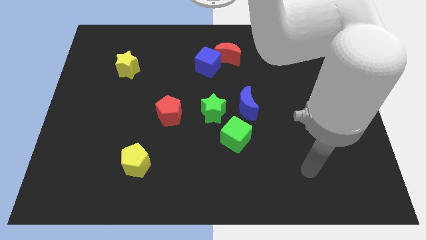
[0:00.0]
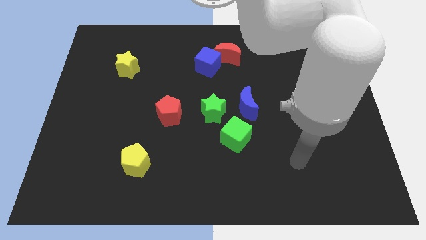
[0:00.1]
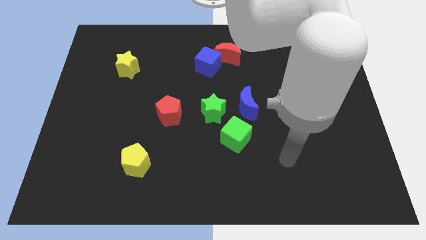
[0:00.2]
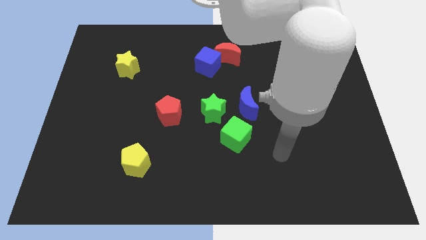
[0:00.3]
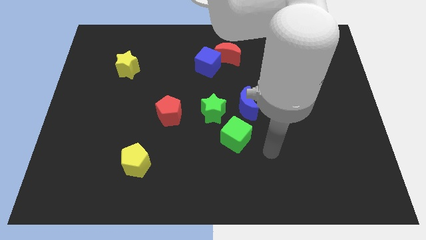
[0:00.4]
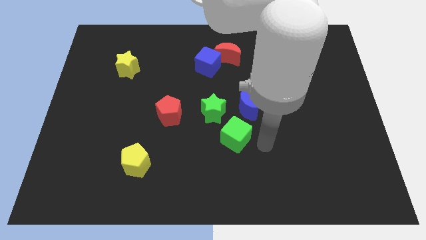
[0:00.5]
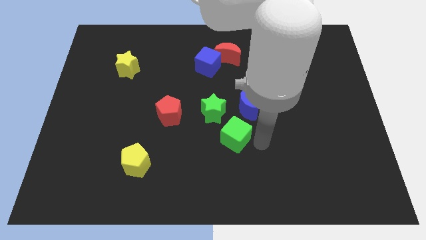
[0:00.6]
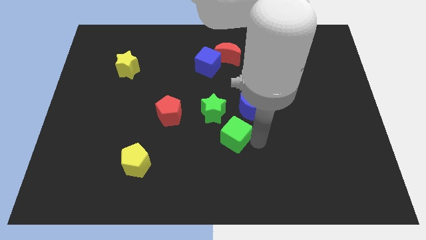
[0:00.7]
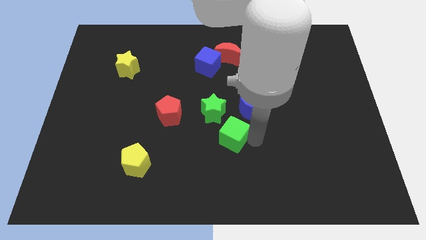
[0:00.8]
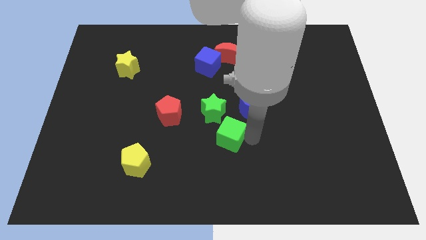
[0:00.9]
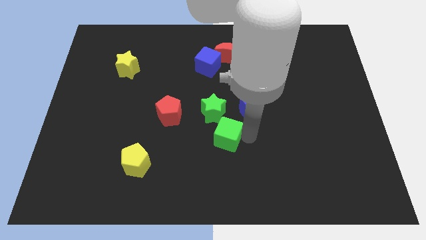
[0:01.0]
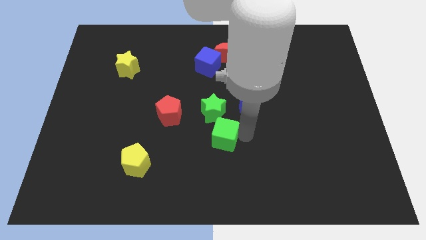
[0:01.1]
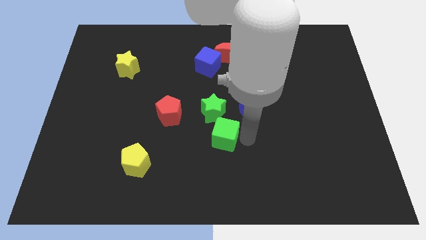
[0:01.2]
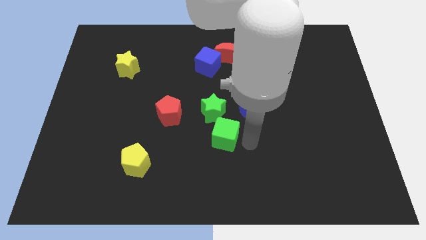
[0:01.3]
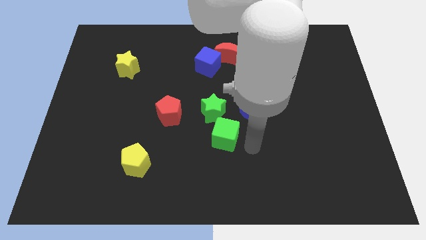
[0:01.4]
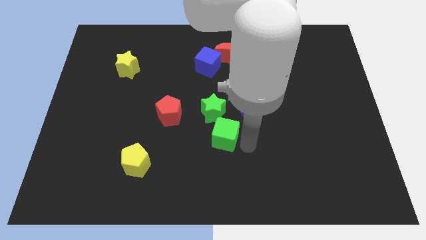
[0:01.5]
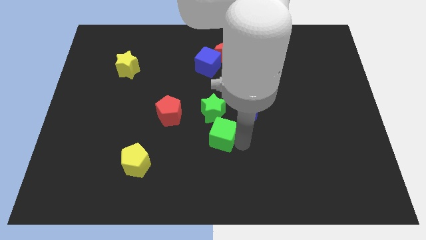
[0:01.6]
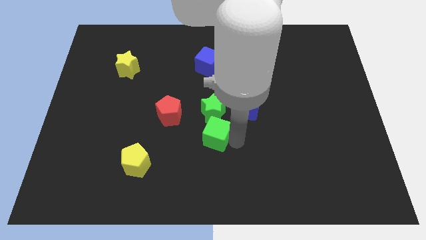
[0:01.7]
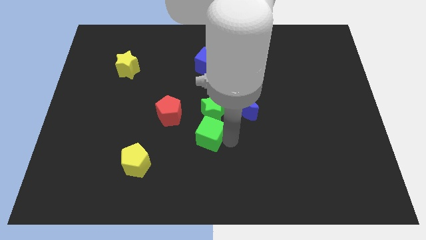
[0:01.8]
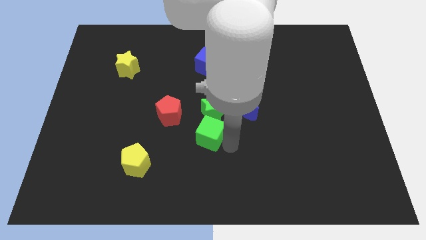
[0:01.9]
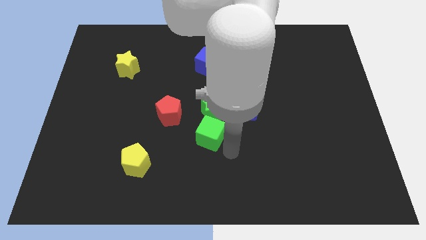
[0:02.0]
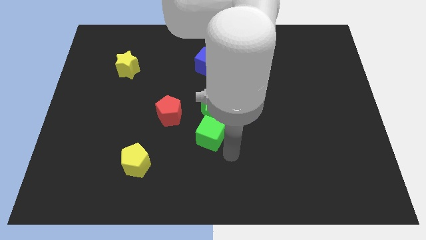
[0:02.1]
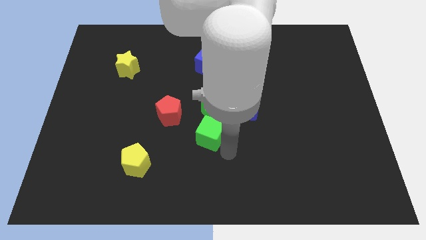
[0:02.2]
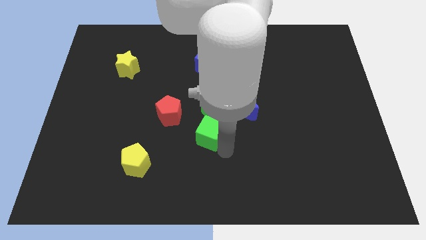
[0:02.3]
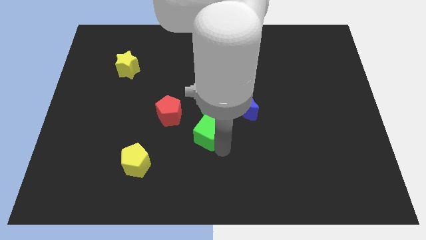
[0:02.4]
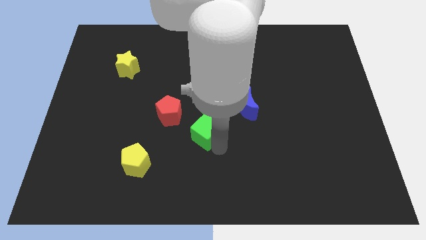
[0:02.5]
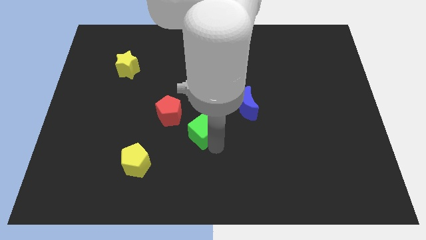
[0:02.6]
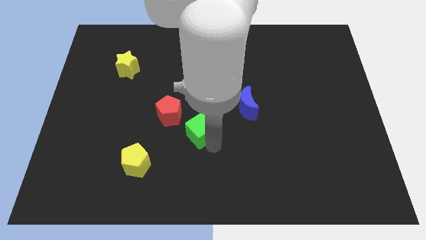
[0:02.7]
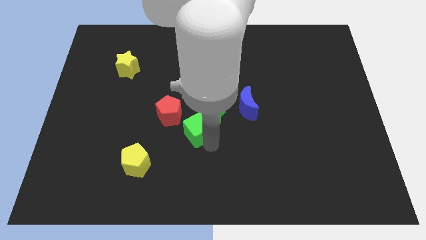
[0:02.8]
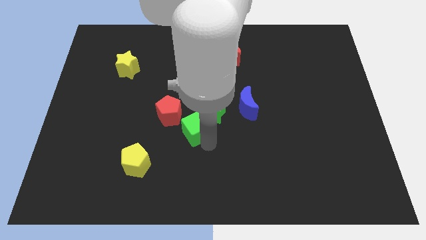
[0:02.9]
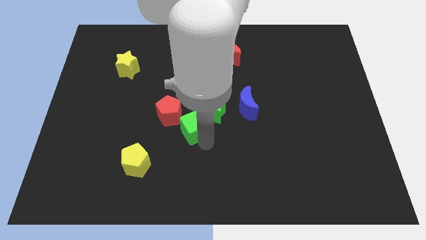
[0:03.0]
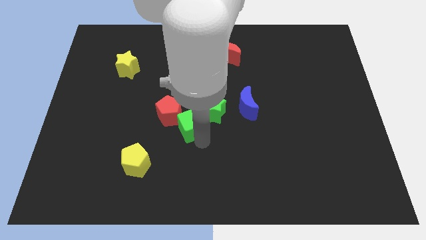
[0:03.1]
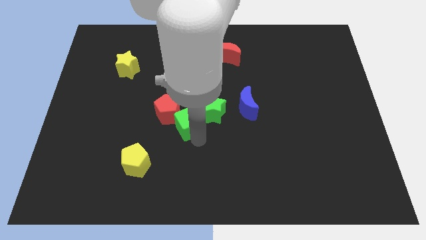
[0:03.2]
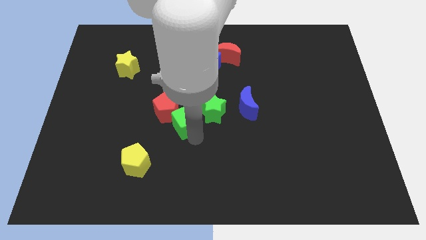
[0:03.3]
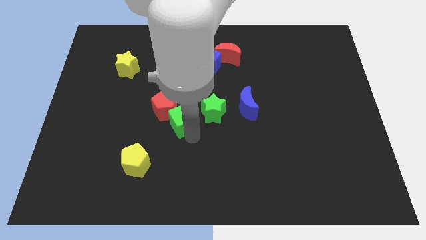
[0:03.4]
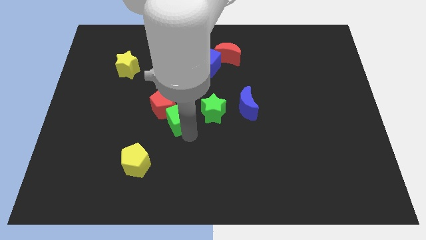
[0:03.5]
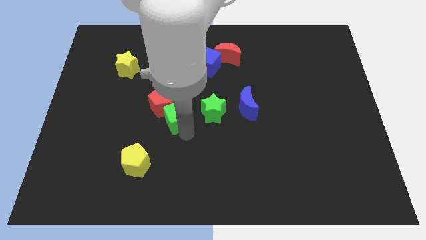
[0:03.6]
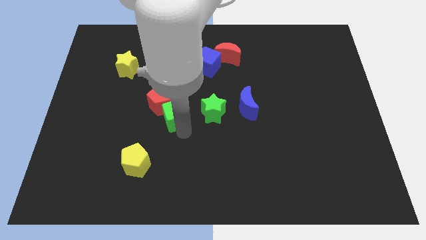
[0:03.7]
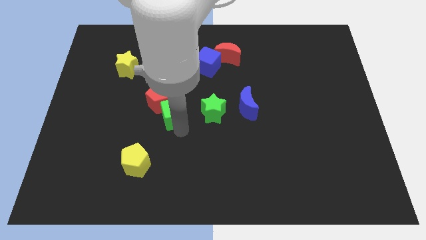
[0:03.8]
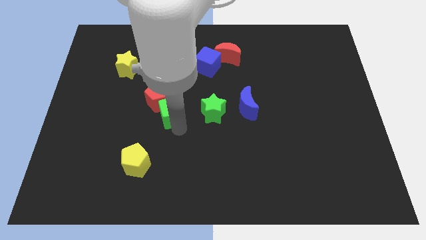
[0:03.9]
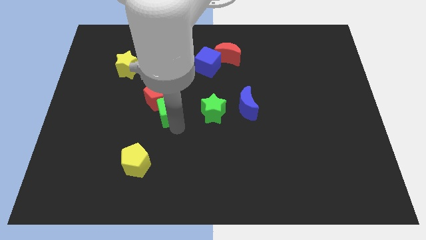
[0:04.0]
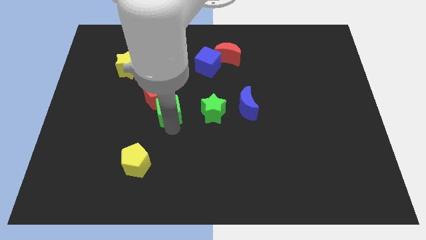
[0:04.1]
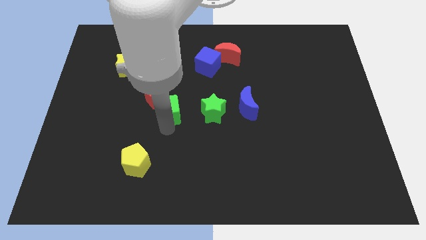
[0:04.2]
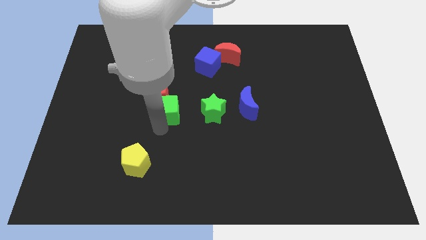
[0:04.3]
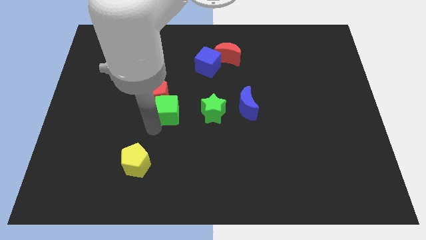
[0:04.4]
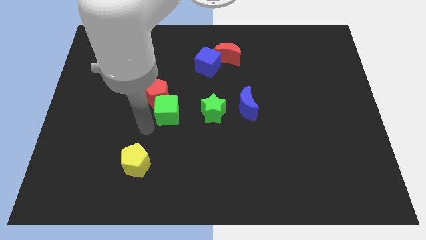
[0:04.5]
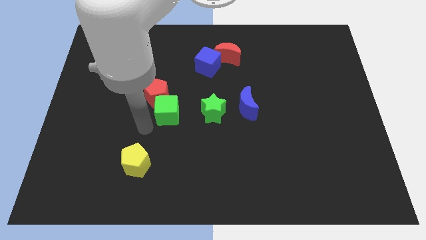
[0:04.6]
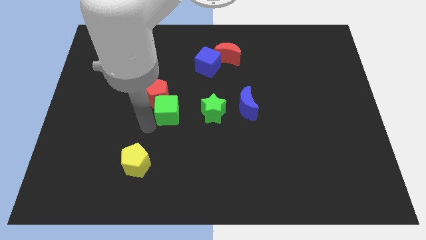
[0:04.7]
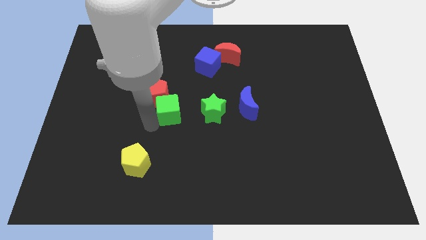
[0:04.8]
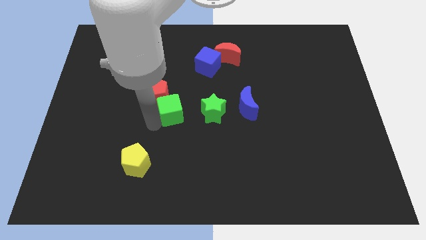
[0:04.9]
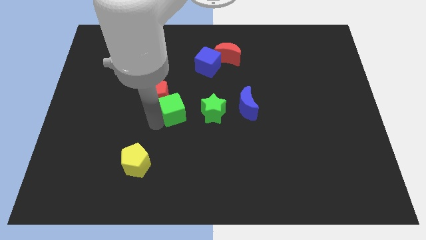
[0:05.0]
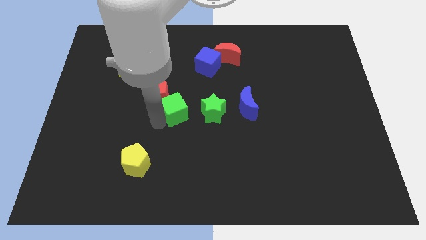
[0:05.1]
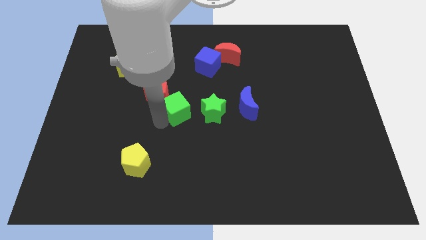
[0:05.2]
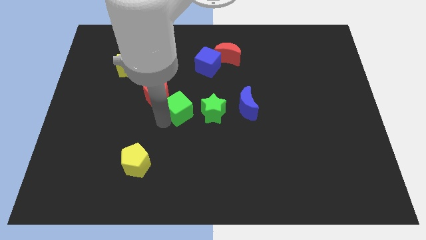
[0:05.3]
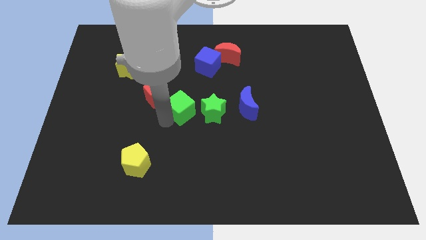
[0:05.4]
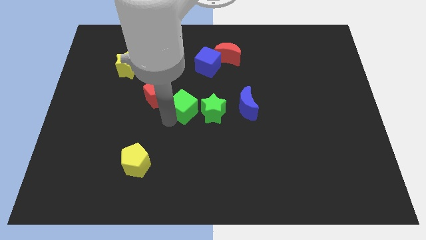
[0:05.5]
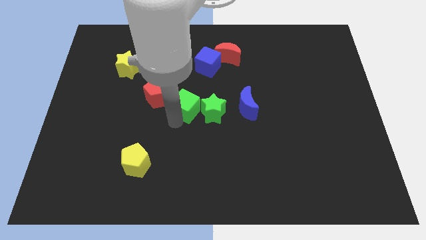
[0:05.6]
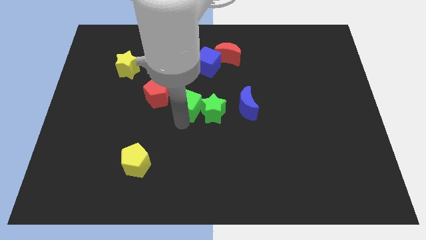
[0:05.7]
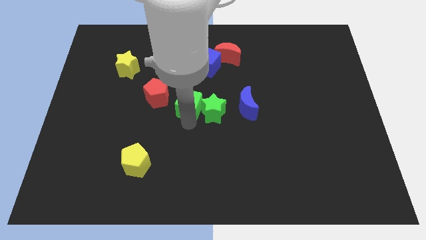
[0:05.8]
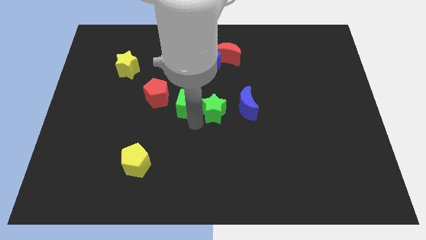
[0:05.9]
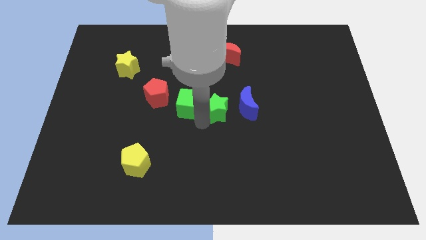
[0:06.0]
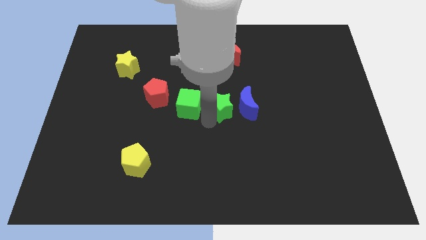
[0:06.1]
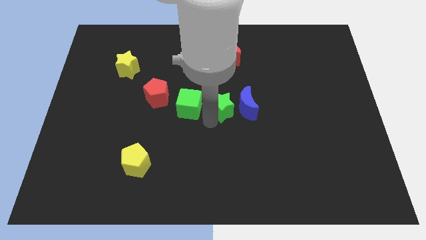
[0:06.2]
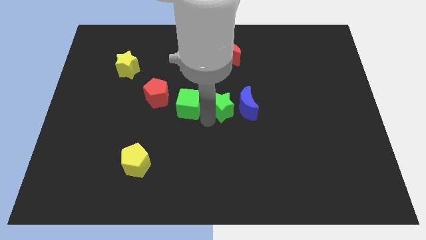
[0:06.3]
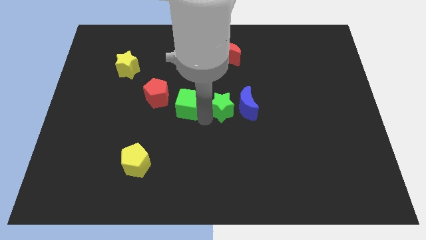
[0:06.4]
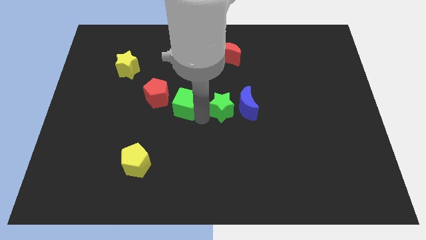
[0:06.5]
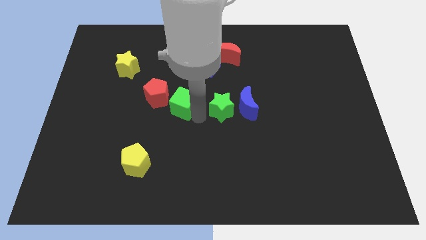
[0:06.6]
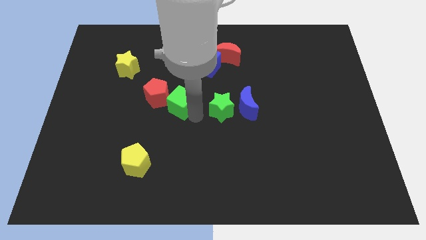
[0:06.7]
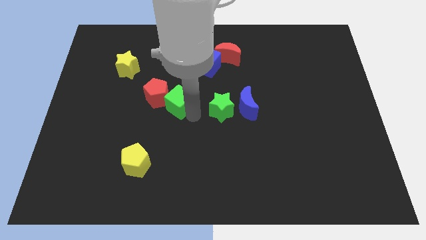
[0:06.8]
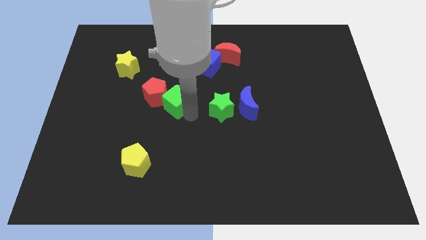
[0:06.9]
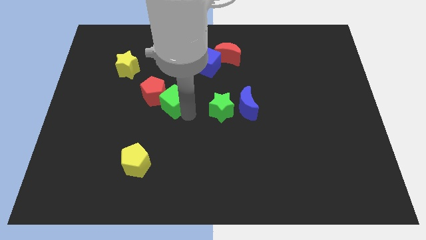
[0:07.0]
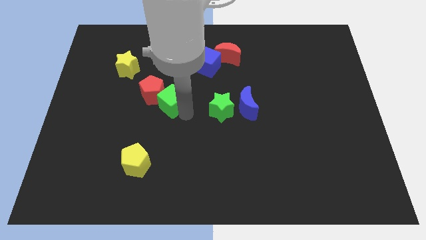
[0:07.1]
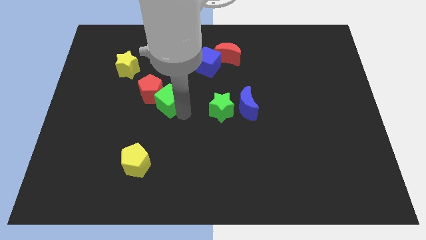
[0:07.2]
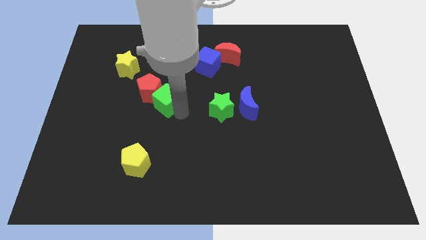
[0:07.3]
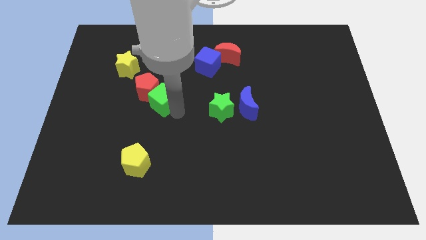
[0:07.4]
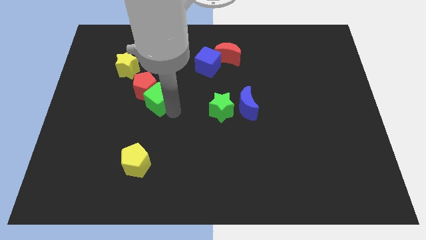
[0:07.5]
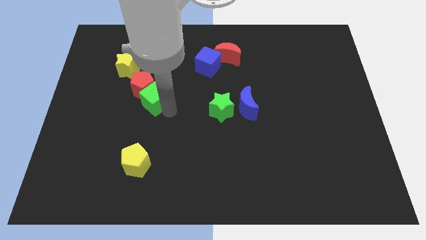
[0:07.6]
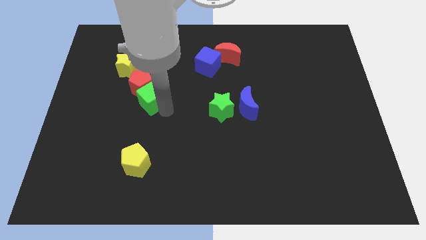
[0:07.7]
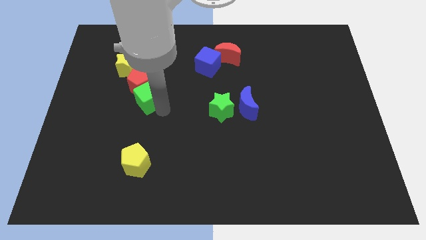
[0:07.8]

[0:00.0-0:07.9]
move the green cube upwards and to the left diagonally

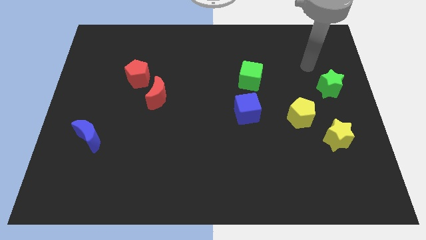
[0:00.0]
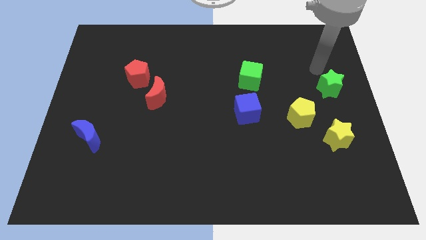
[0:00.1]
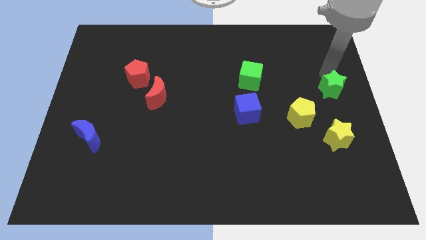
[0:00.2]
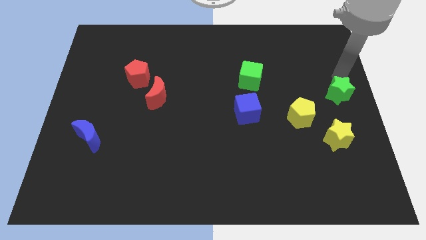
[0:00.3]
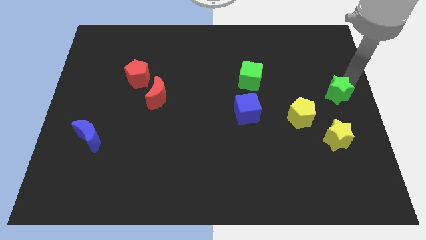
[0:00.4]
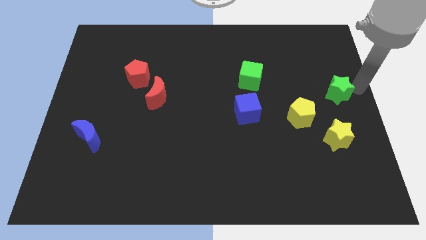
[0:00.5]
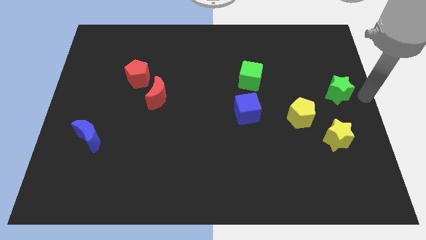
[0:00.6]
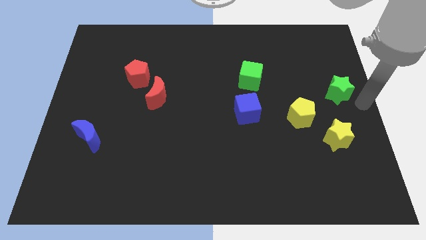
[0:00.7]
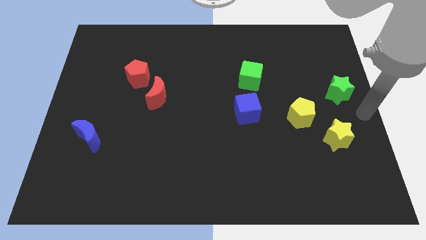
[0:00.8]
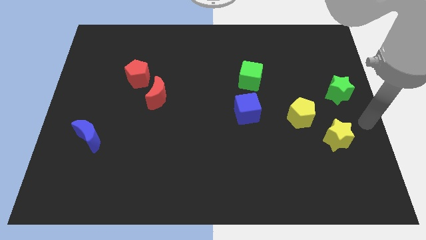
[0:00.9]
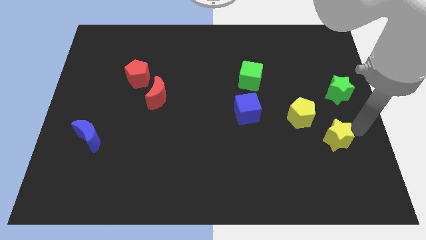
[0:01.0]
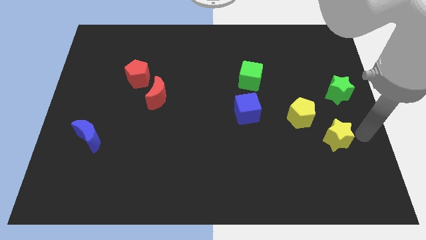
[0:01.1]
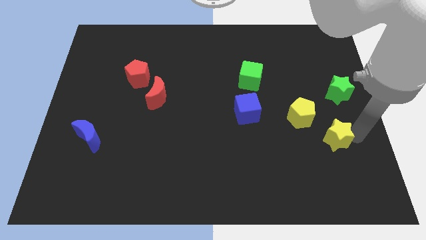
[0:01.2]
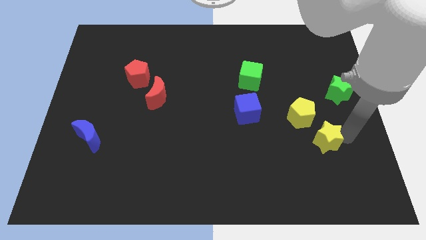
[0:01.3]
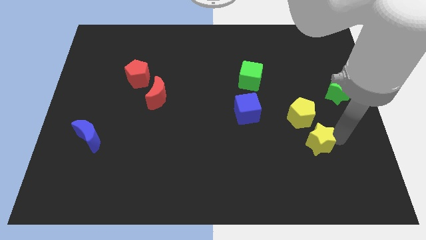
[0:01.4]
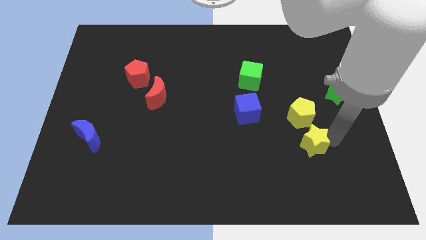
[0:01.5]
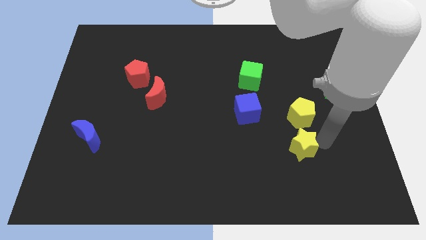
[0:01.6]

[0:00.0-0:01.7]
slide the yellow star to the left a bit
